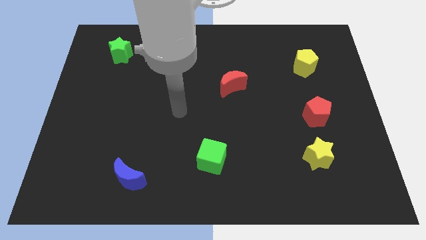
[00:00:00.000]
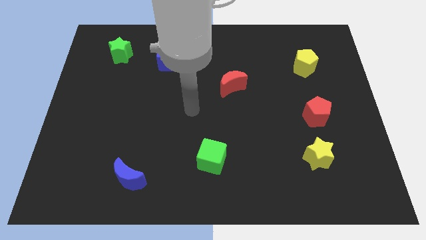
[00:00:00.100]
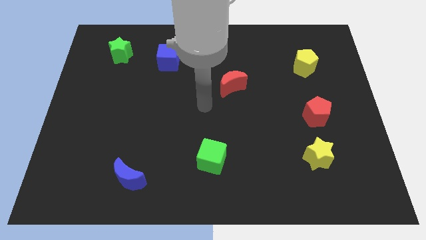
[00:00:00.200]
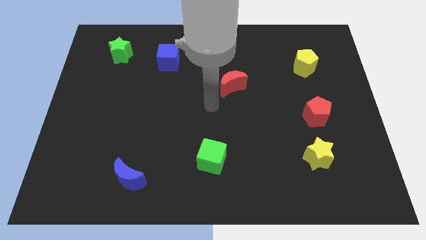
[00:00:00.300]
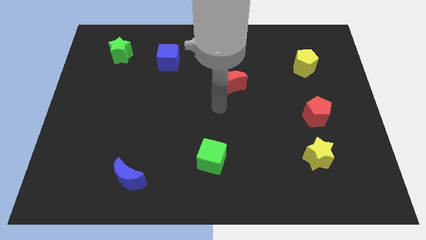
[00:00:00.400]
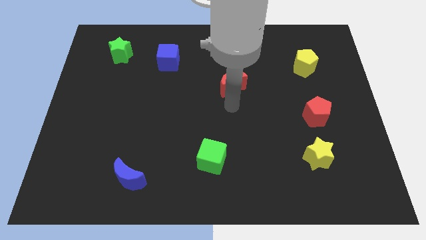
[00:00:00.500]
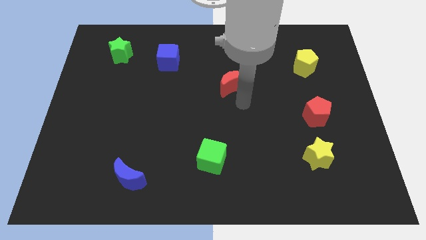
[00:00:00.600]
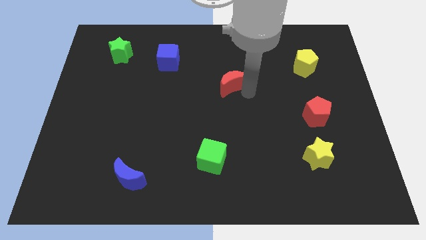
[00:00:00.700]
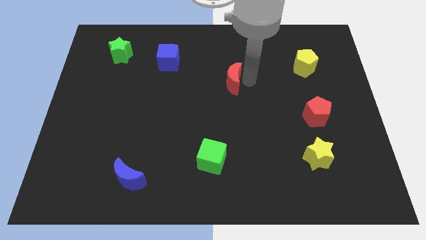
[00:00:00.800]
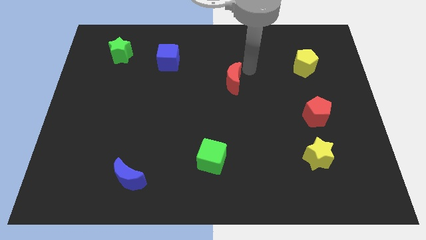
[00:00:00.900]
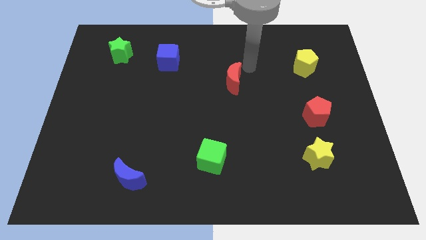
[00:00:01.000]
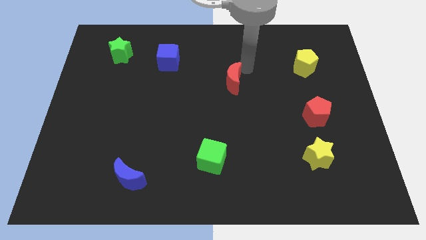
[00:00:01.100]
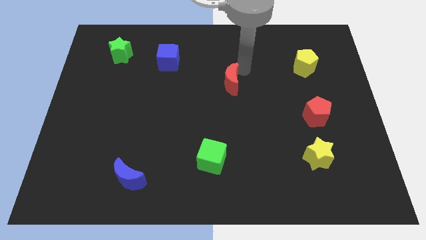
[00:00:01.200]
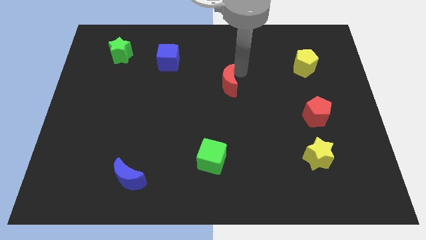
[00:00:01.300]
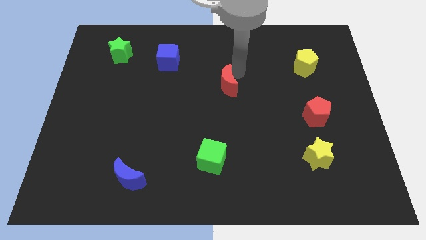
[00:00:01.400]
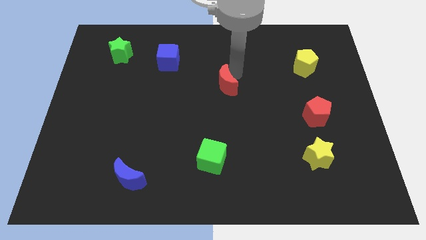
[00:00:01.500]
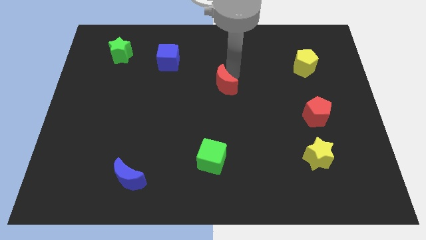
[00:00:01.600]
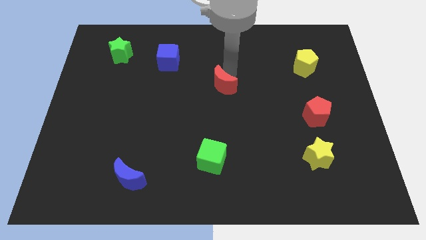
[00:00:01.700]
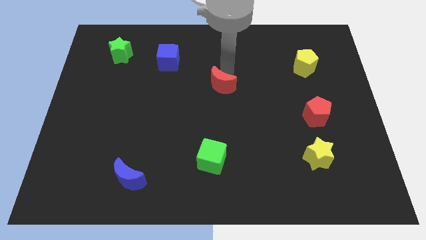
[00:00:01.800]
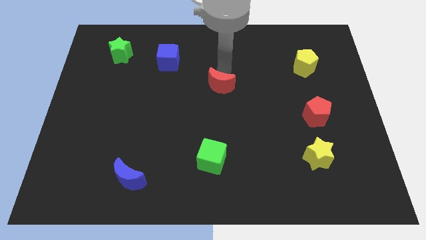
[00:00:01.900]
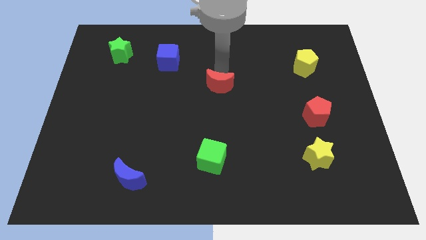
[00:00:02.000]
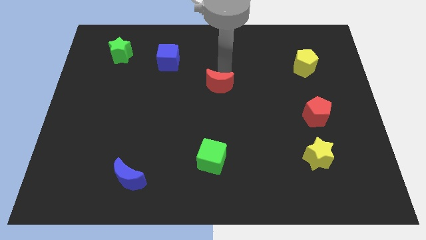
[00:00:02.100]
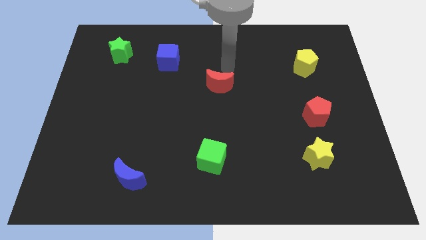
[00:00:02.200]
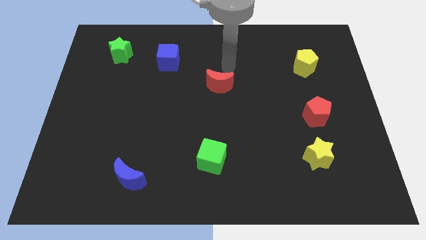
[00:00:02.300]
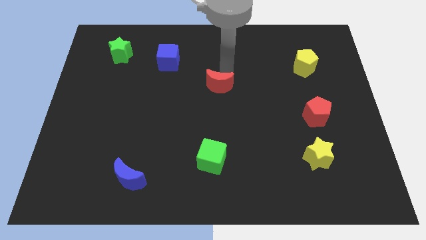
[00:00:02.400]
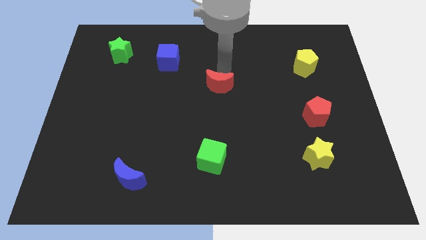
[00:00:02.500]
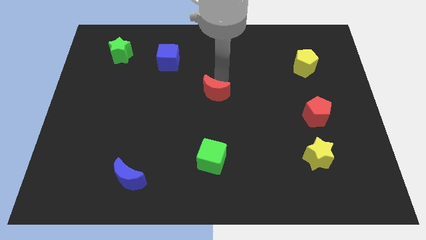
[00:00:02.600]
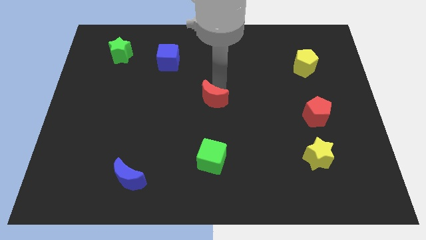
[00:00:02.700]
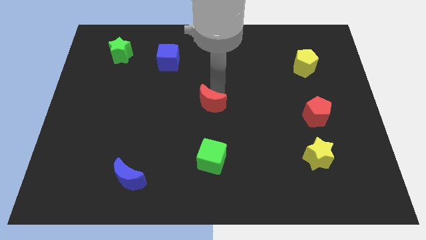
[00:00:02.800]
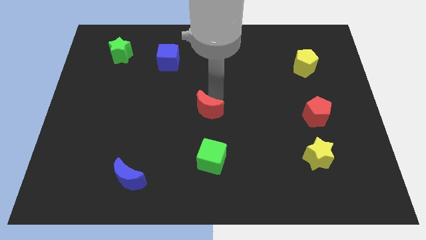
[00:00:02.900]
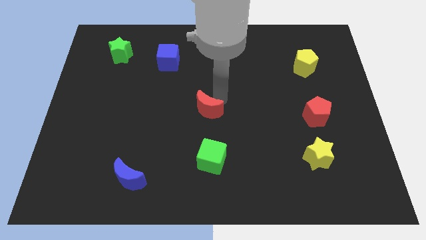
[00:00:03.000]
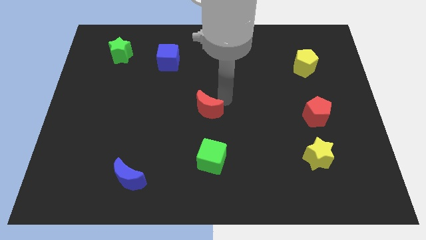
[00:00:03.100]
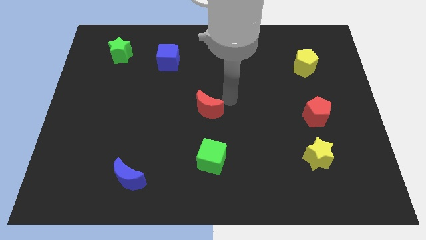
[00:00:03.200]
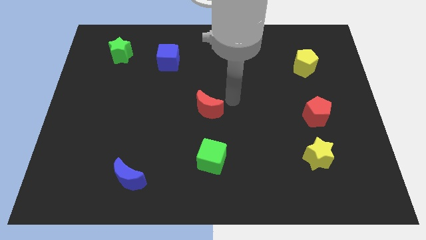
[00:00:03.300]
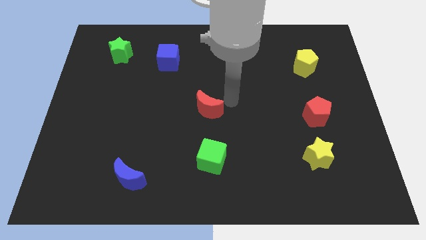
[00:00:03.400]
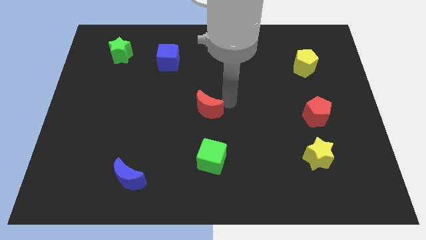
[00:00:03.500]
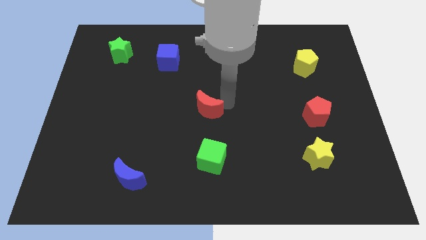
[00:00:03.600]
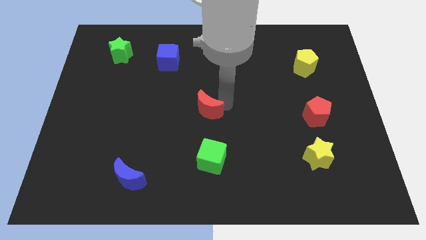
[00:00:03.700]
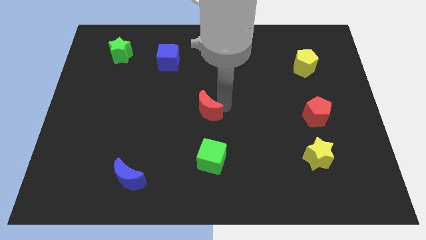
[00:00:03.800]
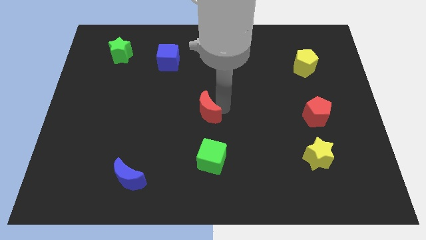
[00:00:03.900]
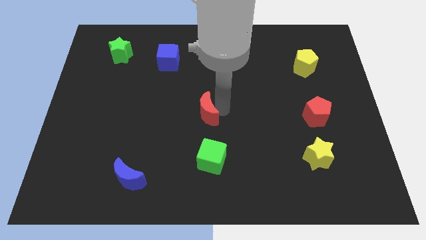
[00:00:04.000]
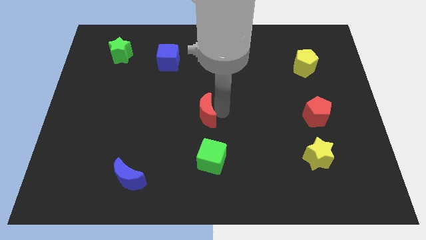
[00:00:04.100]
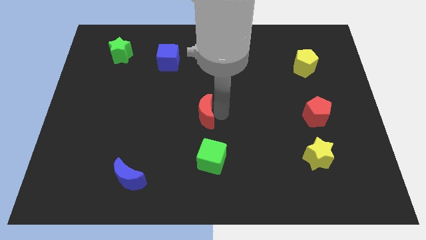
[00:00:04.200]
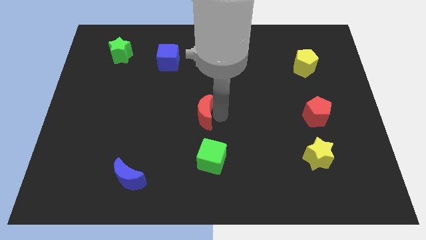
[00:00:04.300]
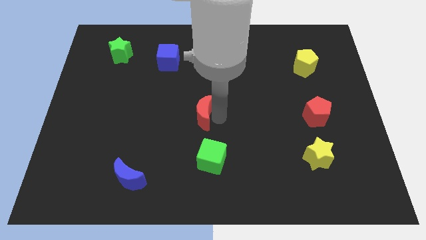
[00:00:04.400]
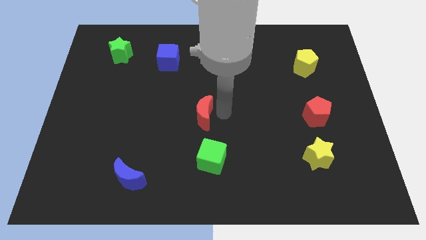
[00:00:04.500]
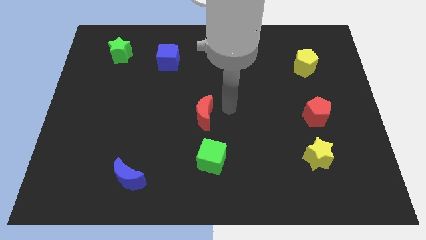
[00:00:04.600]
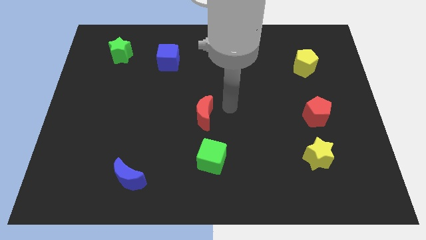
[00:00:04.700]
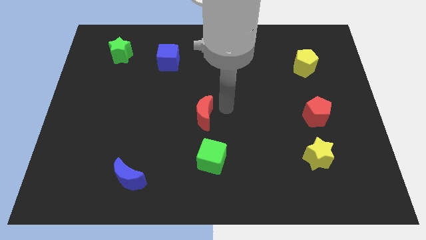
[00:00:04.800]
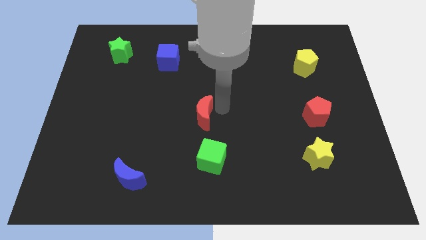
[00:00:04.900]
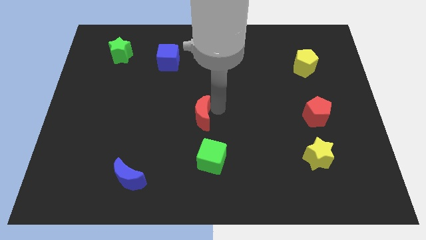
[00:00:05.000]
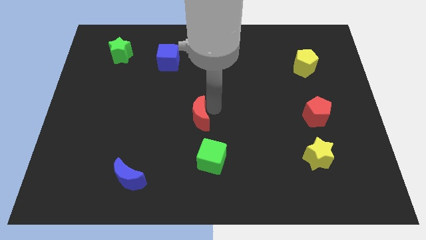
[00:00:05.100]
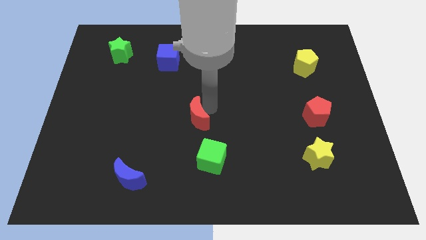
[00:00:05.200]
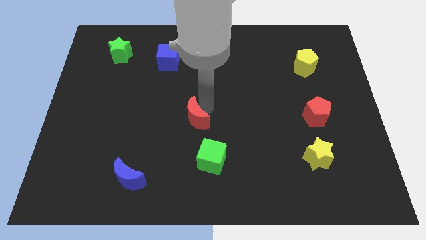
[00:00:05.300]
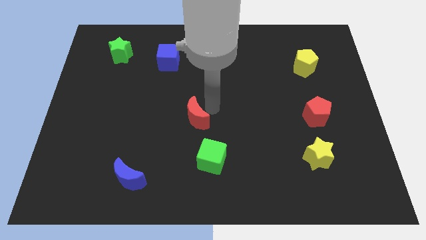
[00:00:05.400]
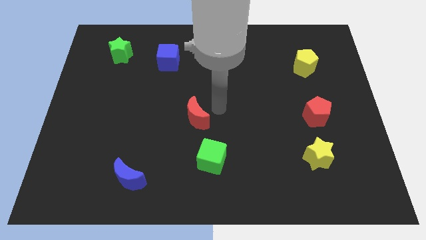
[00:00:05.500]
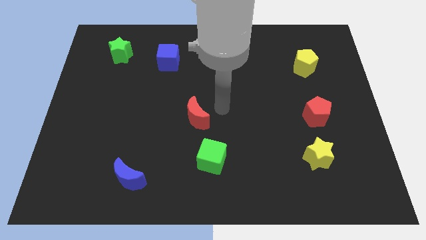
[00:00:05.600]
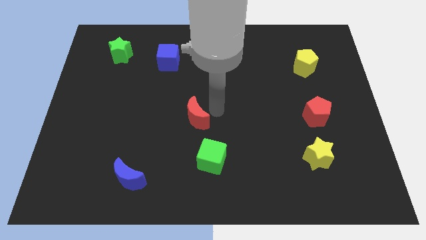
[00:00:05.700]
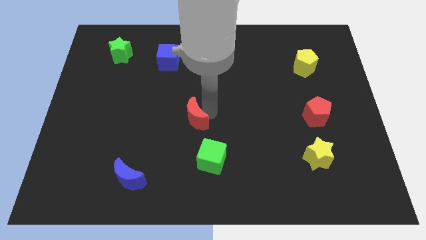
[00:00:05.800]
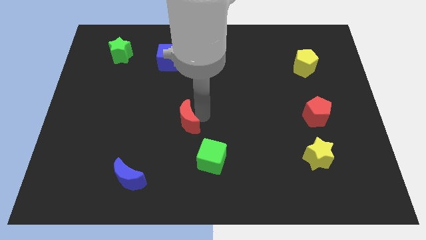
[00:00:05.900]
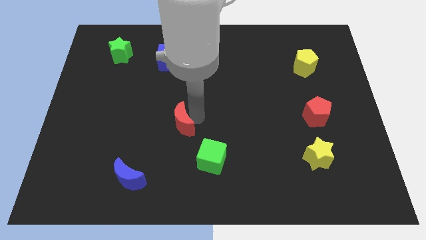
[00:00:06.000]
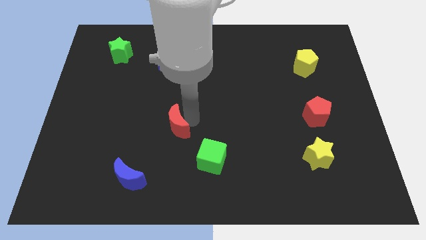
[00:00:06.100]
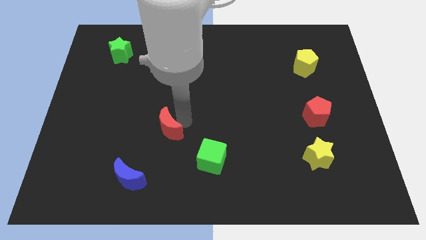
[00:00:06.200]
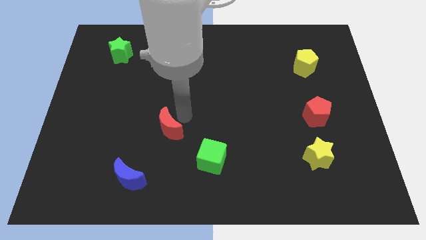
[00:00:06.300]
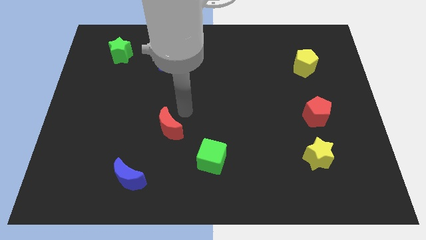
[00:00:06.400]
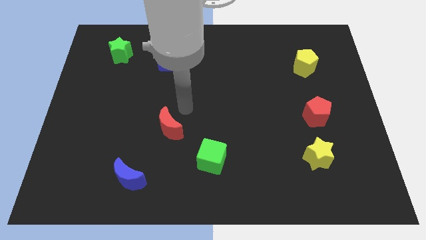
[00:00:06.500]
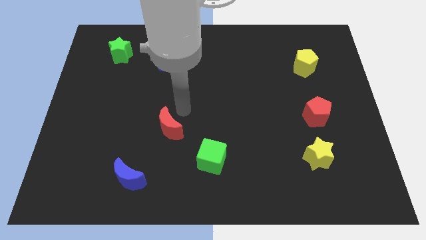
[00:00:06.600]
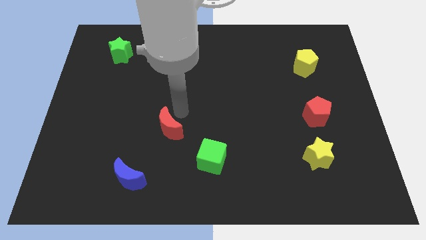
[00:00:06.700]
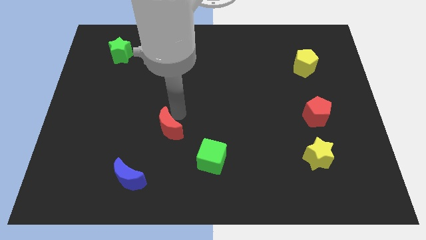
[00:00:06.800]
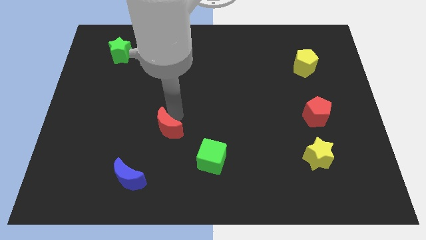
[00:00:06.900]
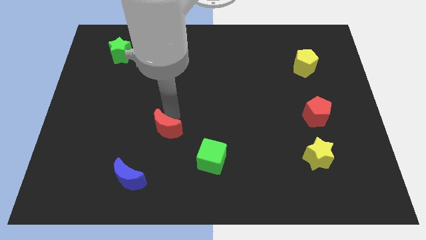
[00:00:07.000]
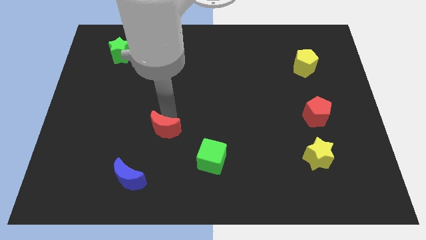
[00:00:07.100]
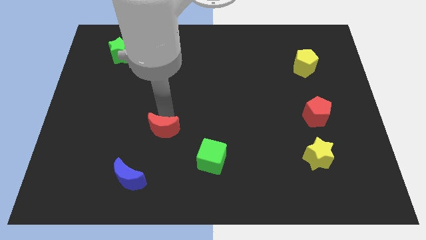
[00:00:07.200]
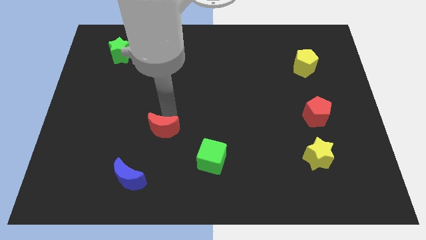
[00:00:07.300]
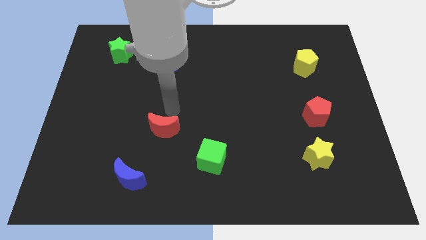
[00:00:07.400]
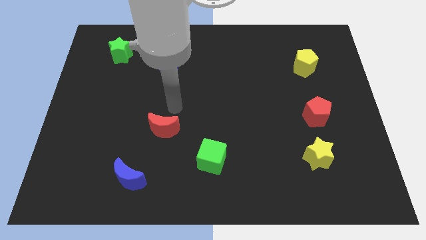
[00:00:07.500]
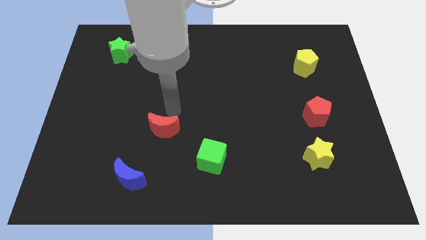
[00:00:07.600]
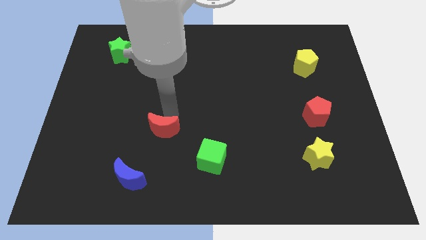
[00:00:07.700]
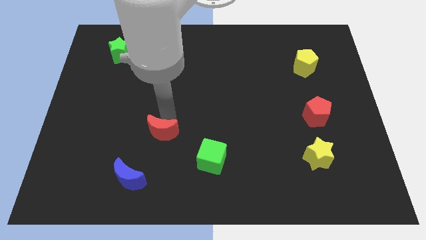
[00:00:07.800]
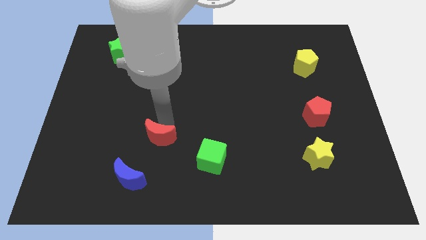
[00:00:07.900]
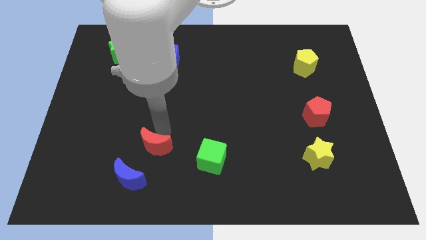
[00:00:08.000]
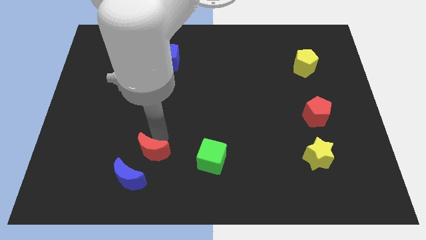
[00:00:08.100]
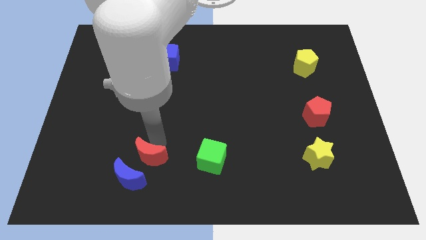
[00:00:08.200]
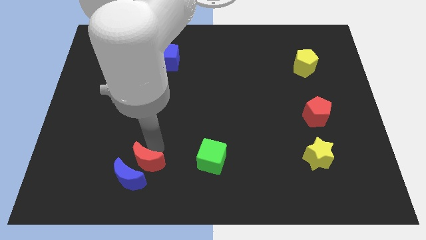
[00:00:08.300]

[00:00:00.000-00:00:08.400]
move the red moon to the blue moon
